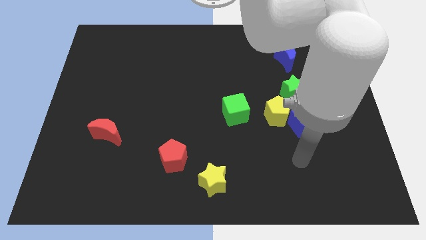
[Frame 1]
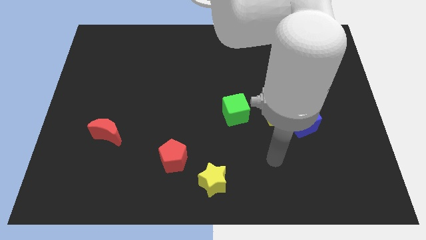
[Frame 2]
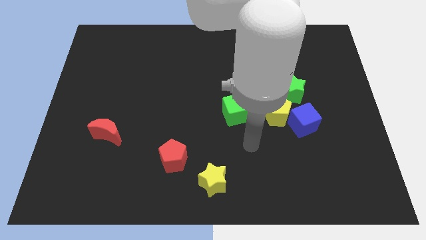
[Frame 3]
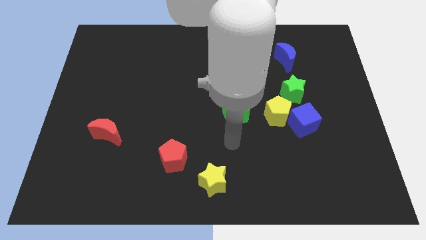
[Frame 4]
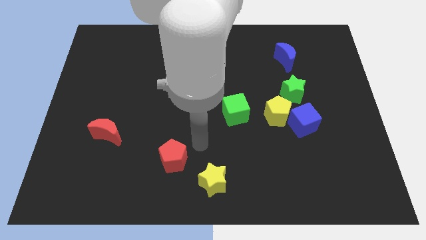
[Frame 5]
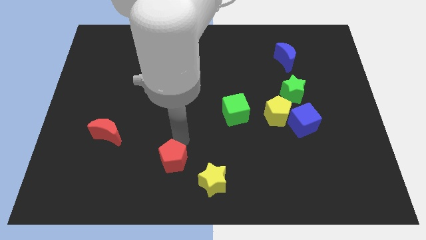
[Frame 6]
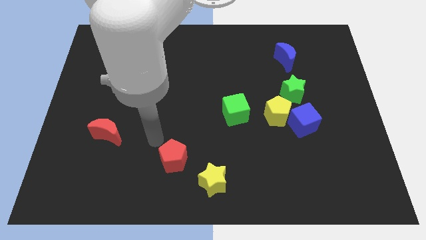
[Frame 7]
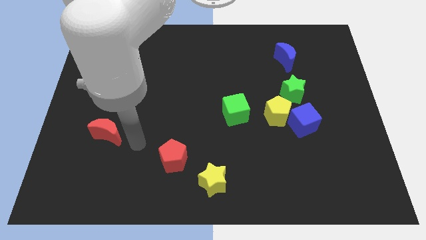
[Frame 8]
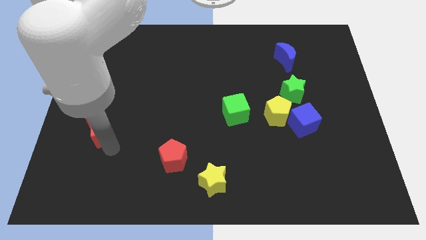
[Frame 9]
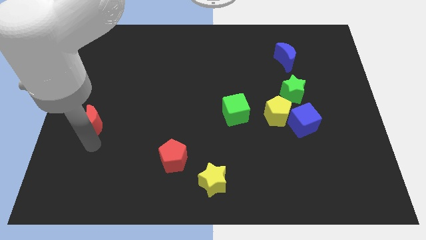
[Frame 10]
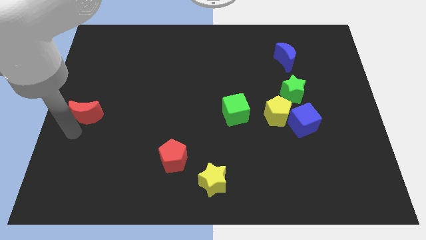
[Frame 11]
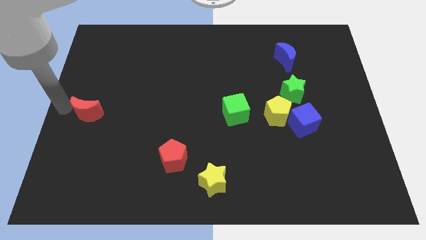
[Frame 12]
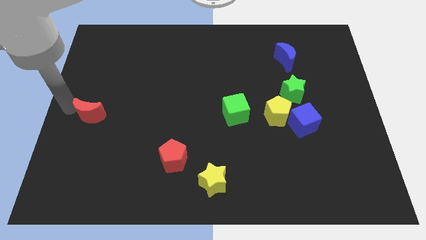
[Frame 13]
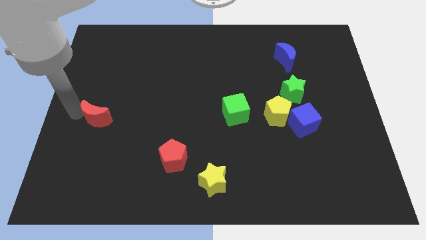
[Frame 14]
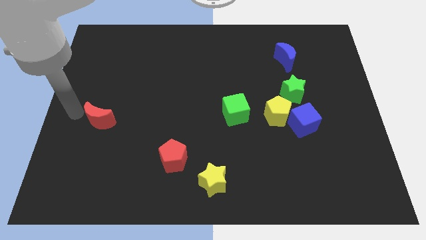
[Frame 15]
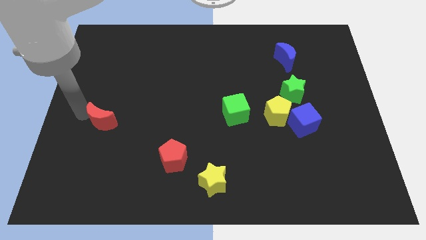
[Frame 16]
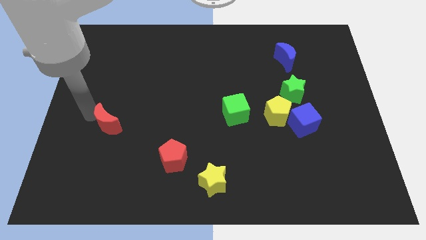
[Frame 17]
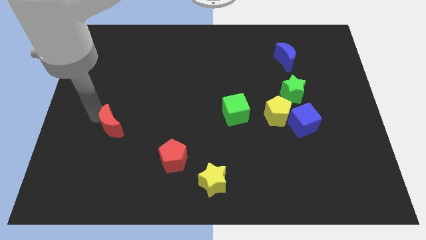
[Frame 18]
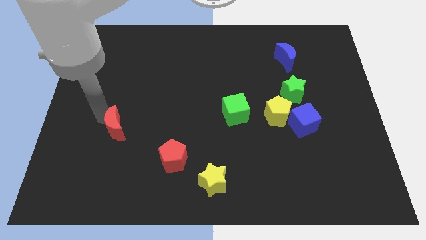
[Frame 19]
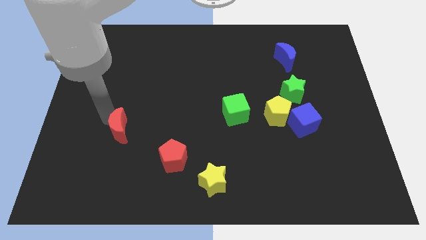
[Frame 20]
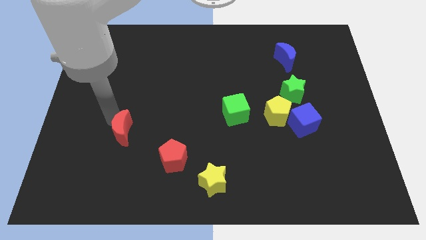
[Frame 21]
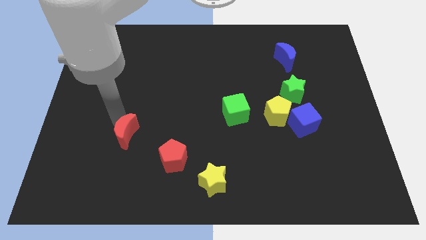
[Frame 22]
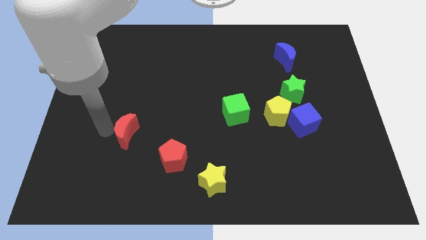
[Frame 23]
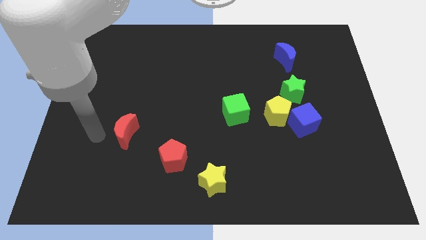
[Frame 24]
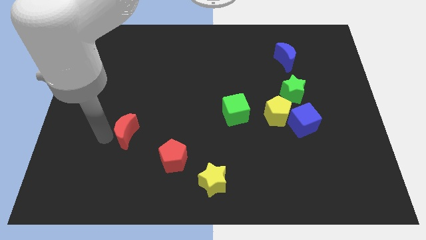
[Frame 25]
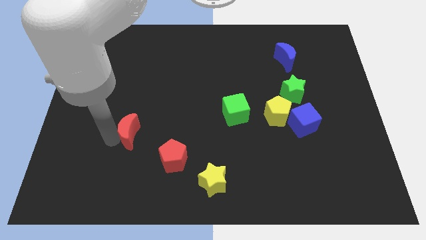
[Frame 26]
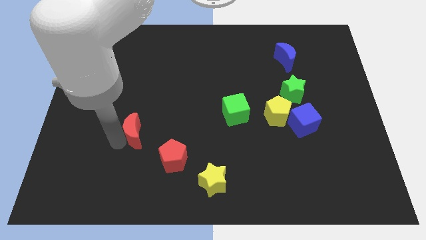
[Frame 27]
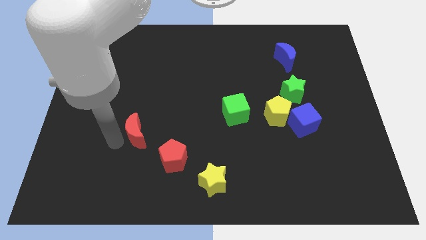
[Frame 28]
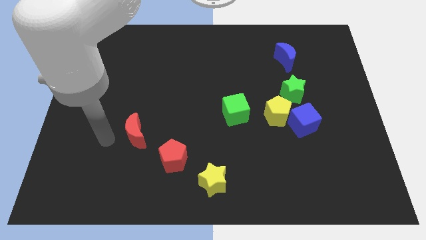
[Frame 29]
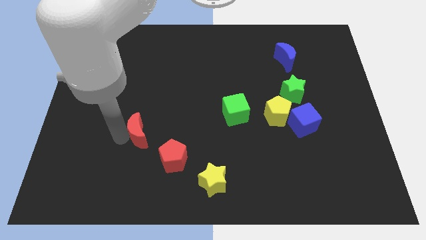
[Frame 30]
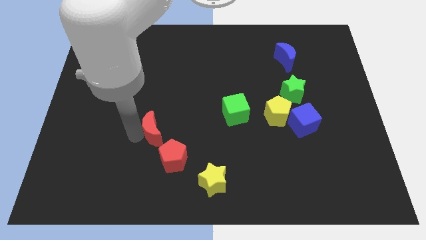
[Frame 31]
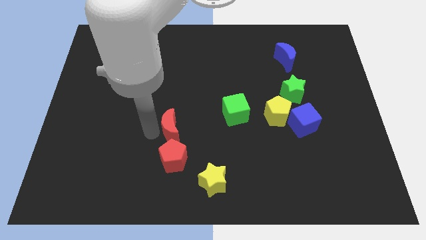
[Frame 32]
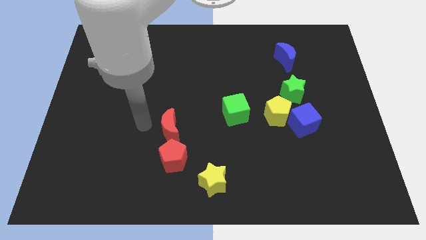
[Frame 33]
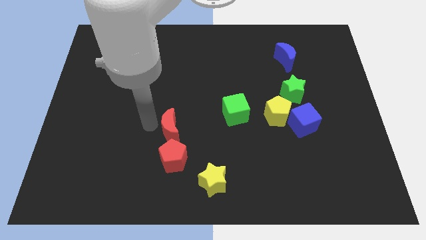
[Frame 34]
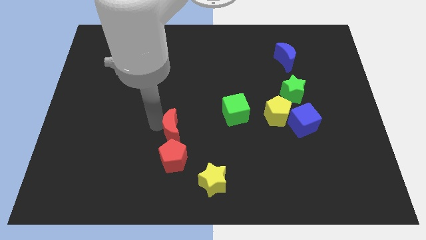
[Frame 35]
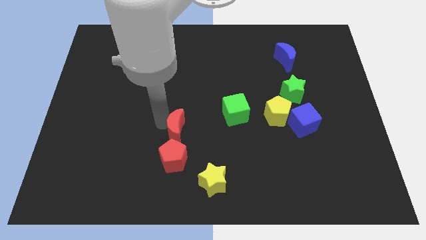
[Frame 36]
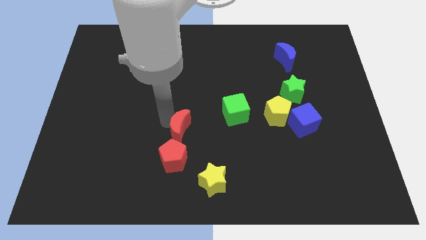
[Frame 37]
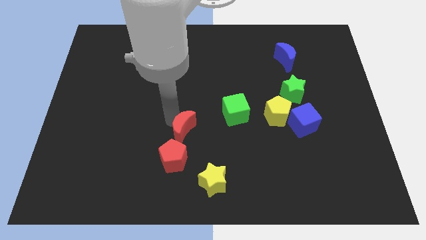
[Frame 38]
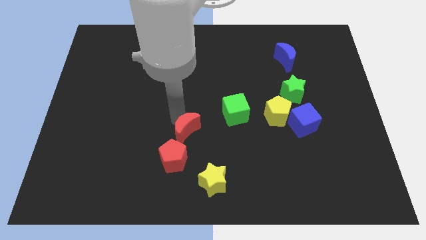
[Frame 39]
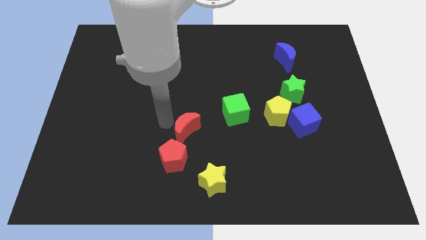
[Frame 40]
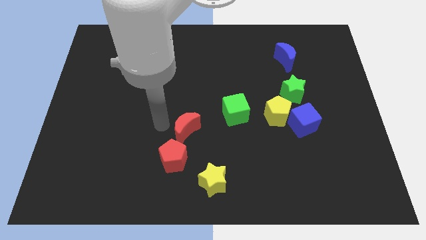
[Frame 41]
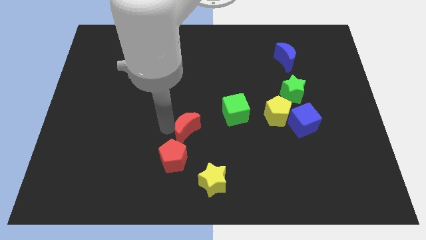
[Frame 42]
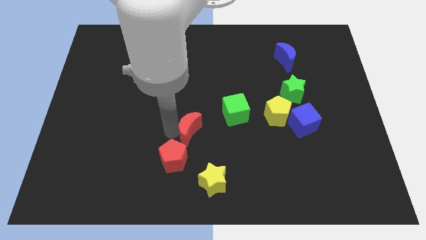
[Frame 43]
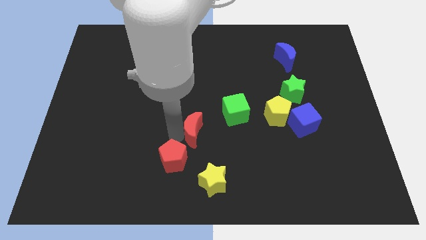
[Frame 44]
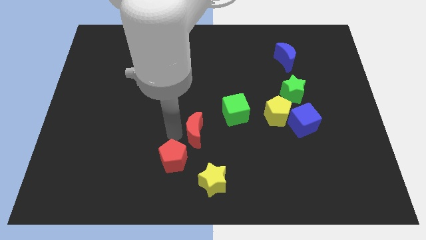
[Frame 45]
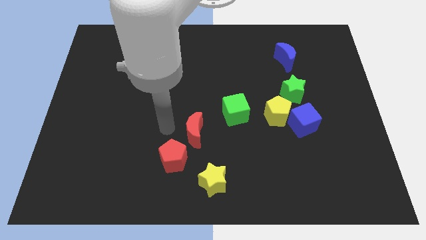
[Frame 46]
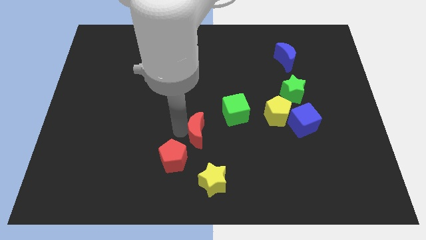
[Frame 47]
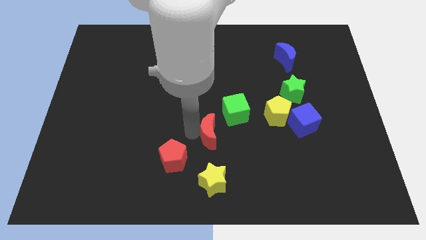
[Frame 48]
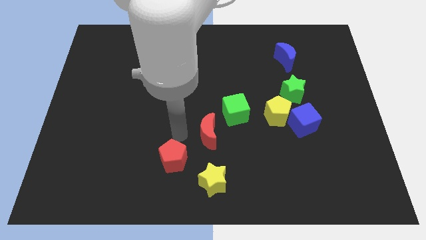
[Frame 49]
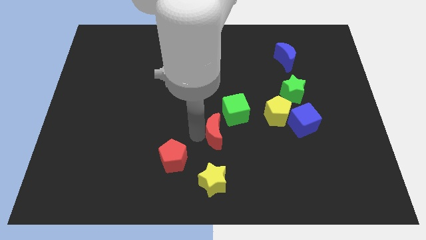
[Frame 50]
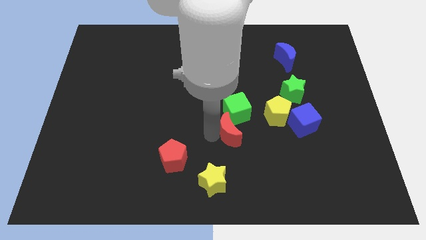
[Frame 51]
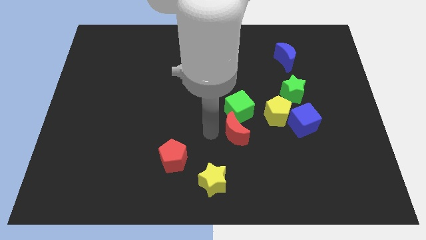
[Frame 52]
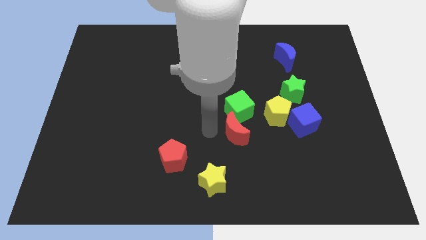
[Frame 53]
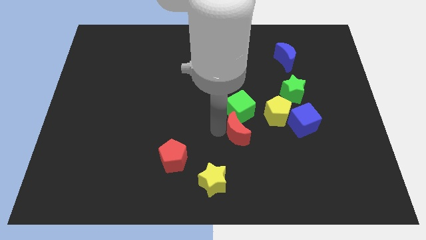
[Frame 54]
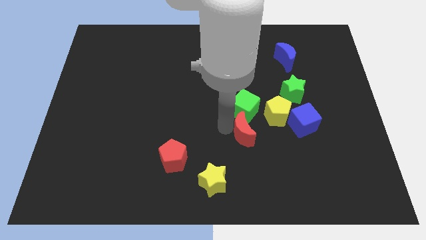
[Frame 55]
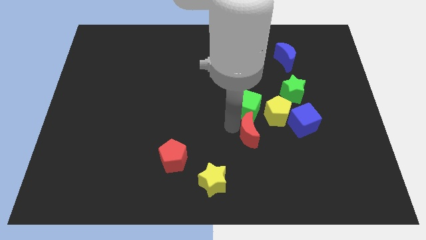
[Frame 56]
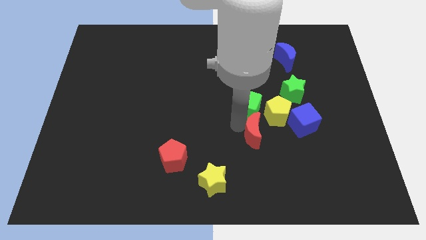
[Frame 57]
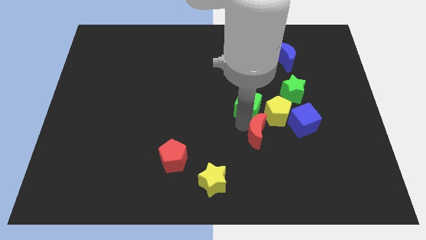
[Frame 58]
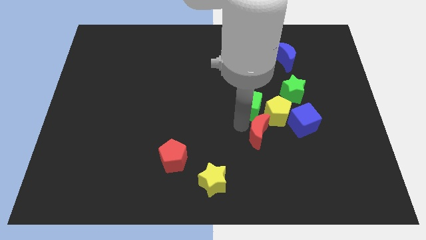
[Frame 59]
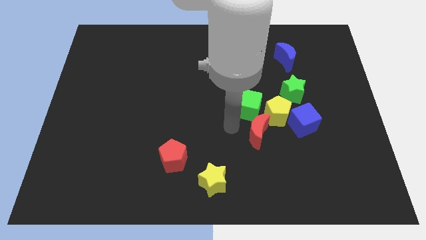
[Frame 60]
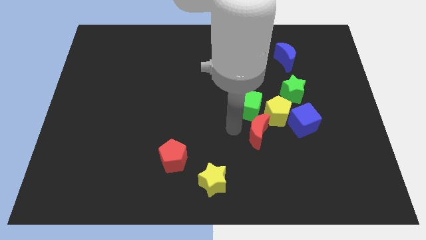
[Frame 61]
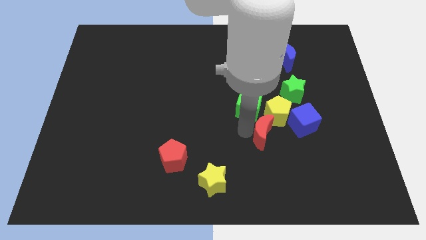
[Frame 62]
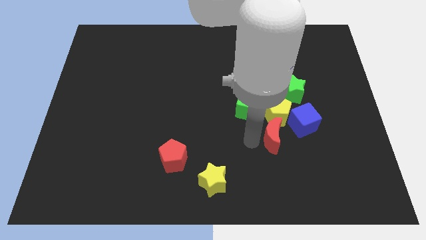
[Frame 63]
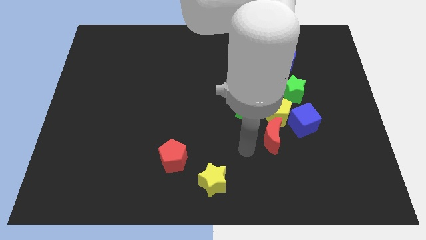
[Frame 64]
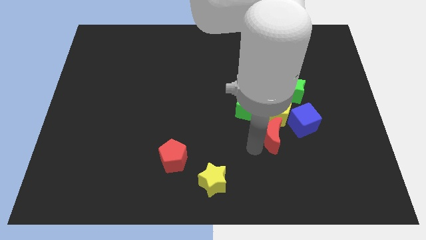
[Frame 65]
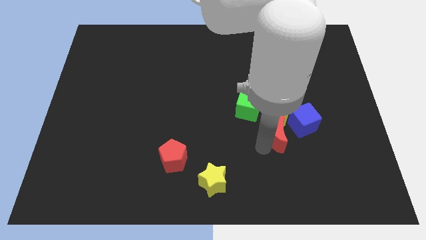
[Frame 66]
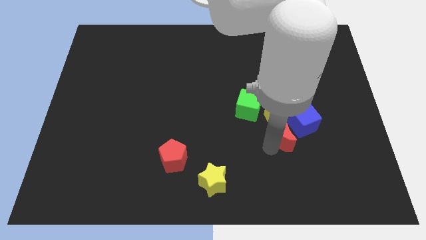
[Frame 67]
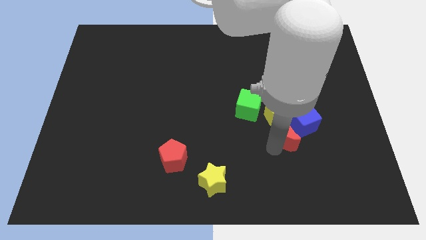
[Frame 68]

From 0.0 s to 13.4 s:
put the red moon towards the blue cube

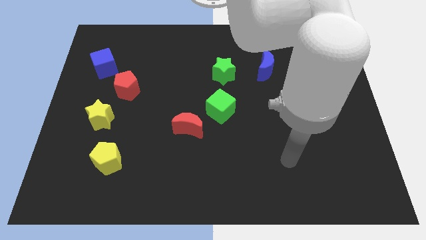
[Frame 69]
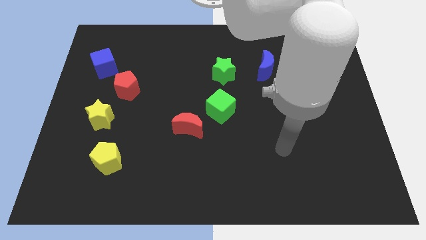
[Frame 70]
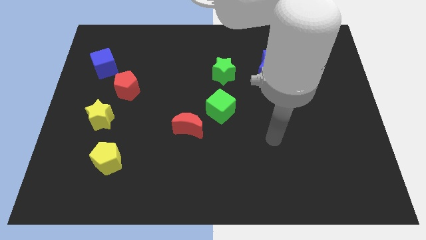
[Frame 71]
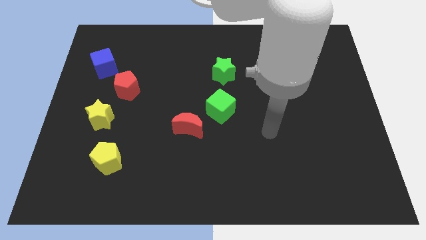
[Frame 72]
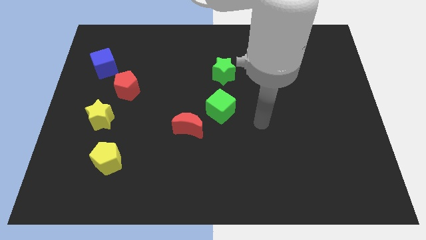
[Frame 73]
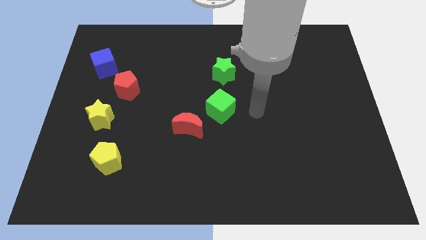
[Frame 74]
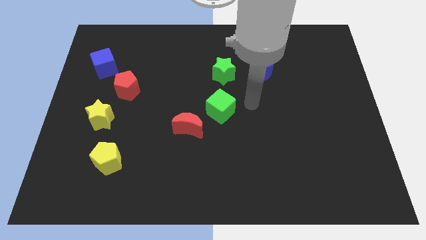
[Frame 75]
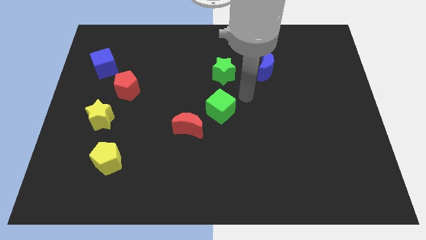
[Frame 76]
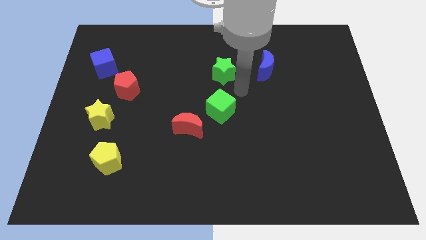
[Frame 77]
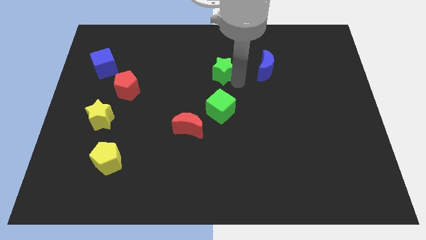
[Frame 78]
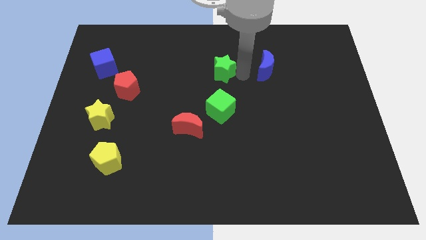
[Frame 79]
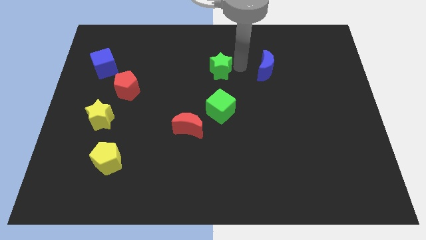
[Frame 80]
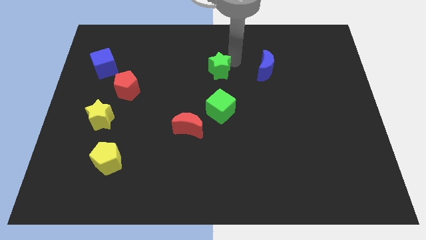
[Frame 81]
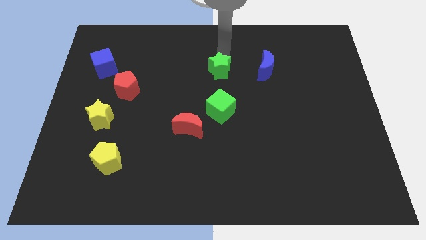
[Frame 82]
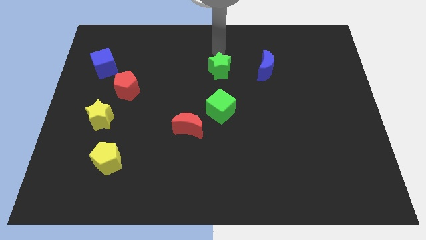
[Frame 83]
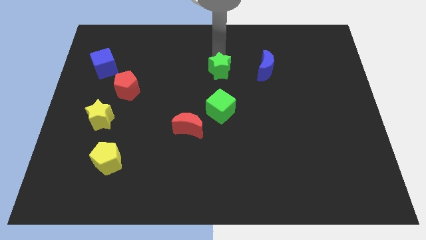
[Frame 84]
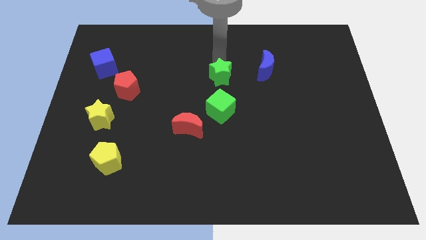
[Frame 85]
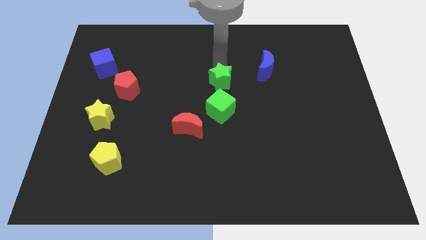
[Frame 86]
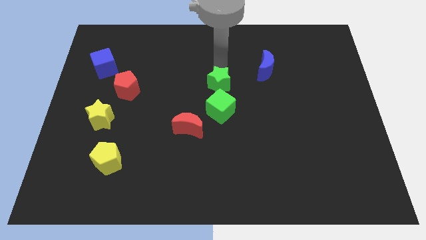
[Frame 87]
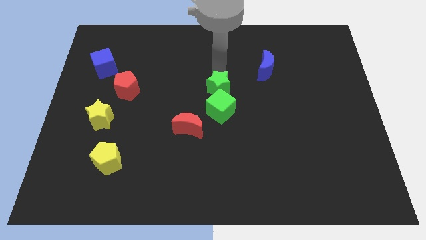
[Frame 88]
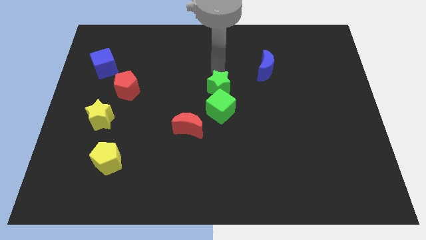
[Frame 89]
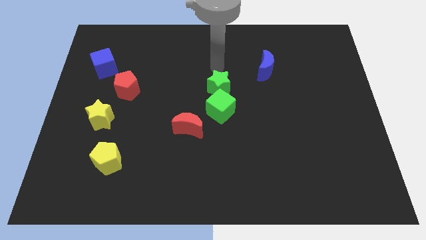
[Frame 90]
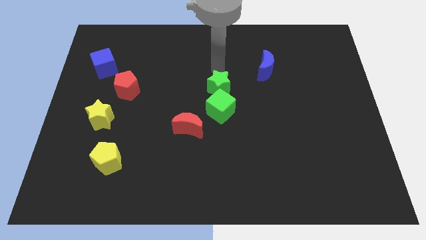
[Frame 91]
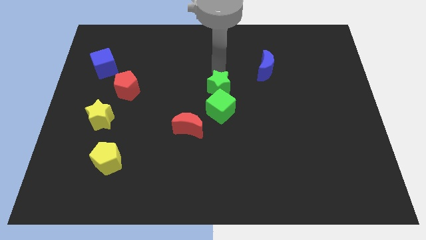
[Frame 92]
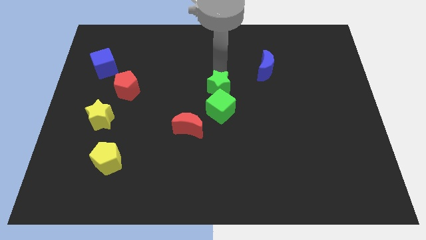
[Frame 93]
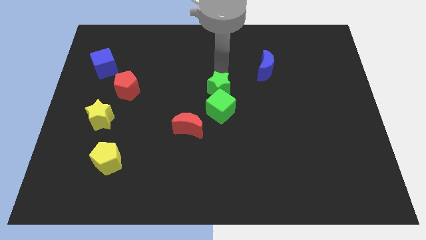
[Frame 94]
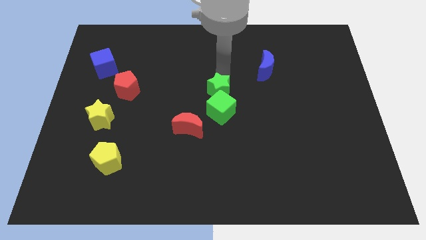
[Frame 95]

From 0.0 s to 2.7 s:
slide the green star to the green cube
